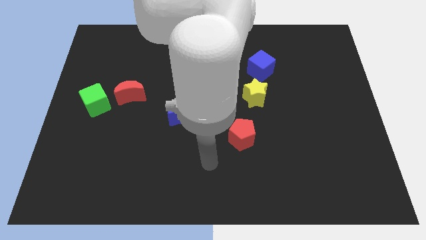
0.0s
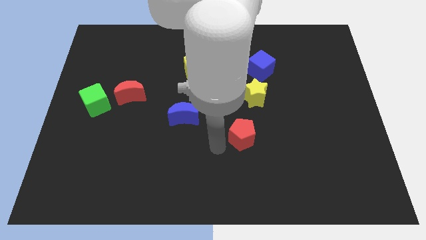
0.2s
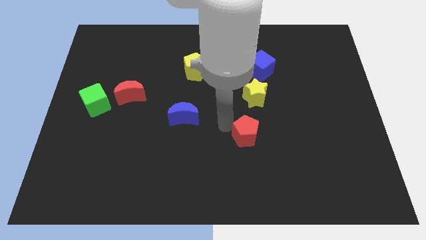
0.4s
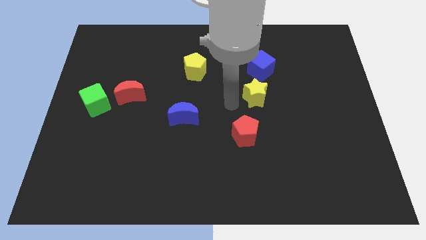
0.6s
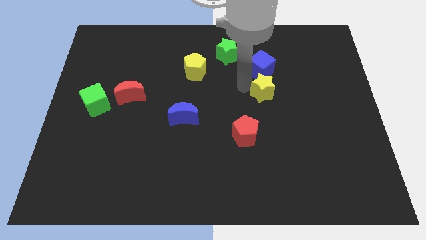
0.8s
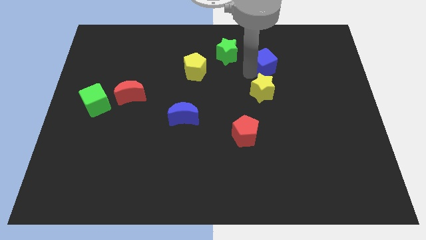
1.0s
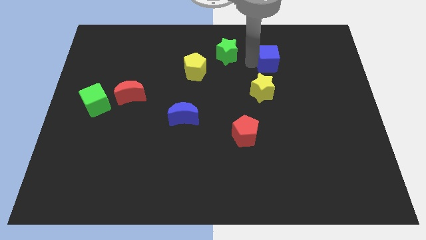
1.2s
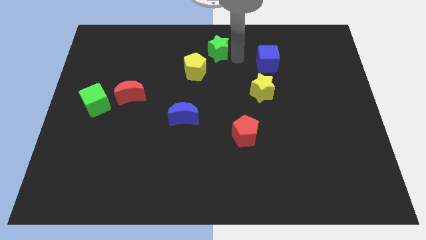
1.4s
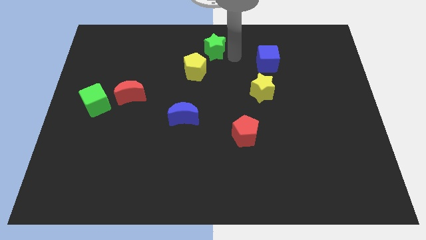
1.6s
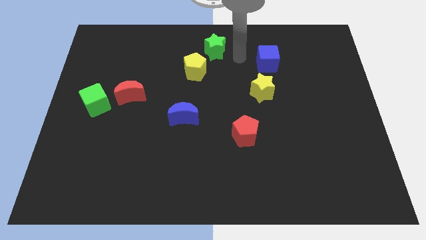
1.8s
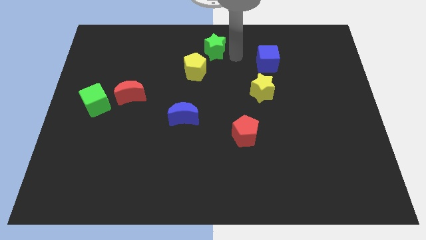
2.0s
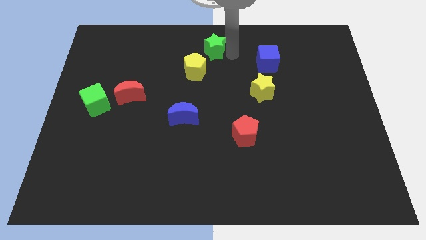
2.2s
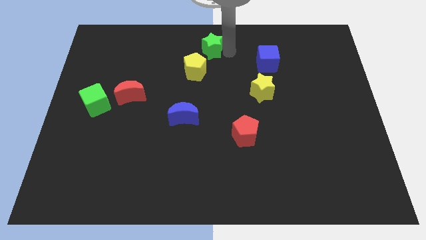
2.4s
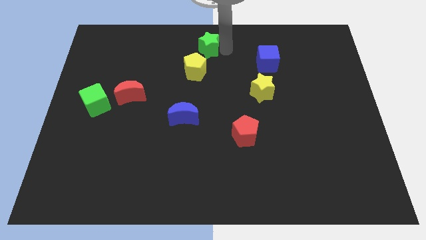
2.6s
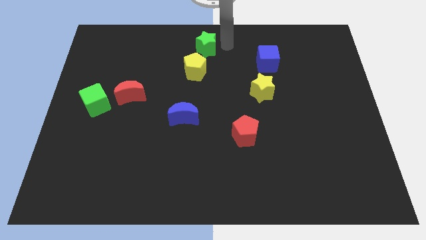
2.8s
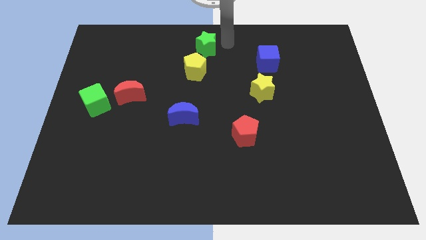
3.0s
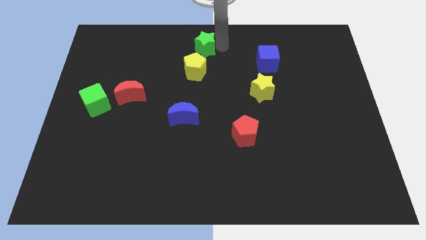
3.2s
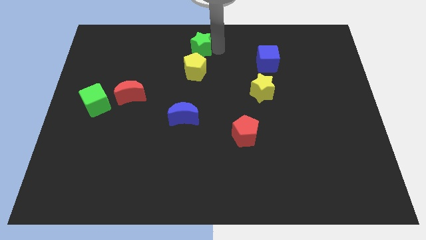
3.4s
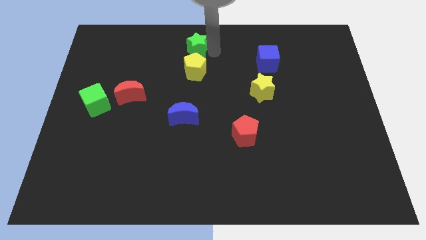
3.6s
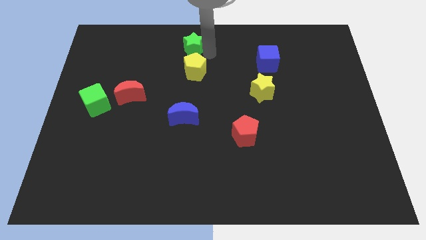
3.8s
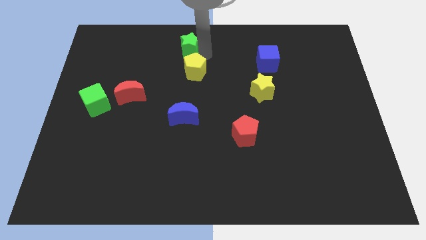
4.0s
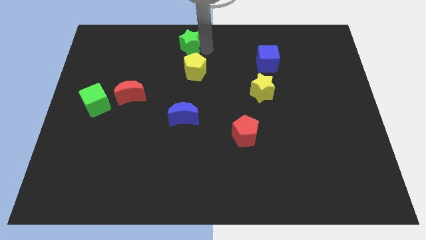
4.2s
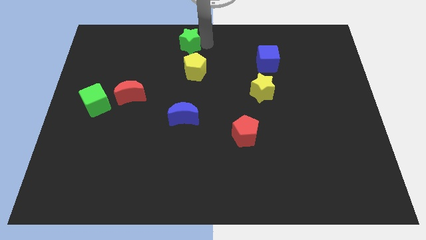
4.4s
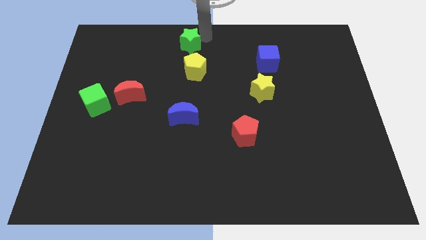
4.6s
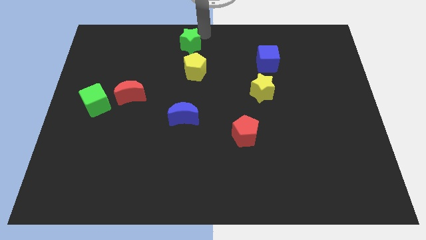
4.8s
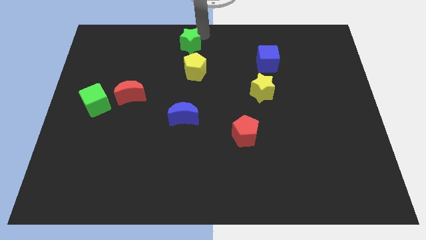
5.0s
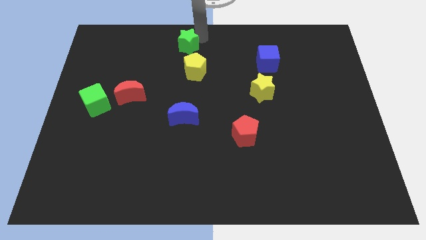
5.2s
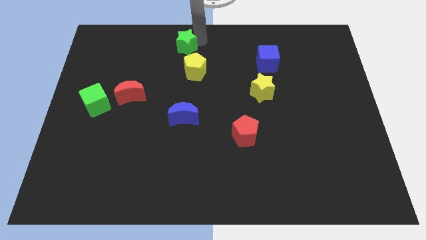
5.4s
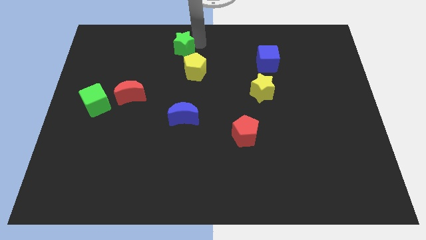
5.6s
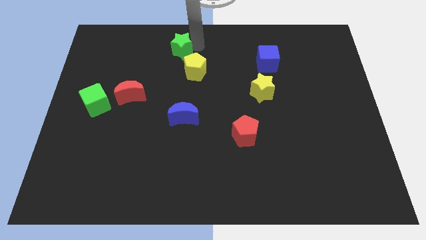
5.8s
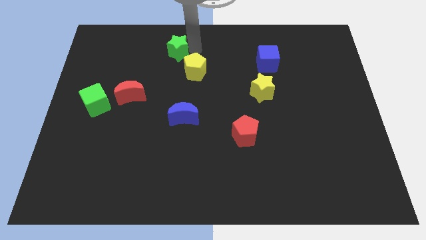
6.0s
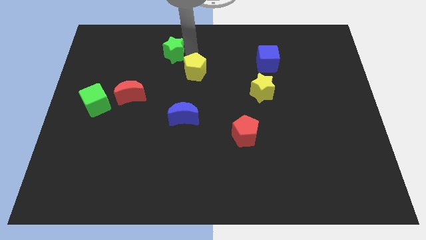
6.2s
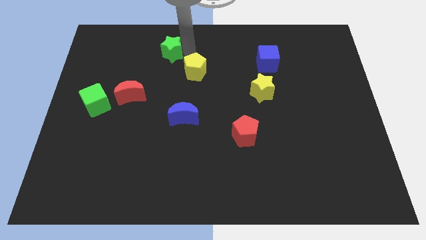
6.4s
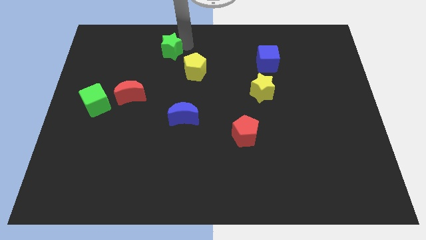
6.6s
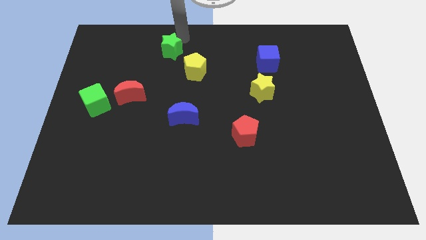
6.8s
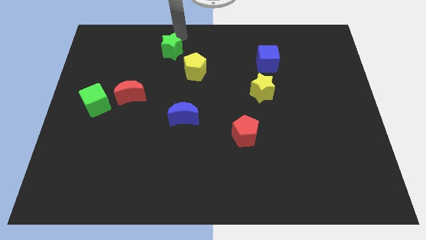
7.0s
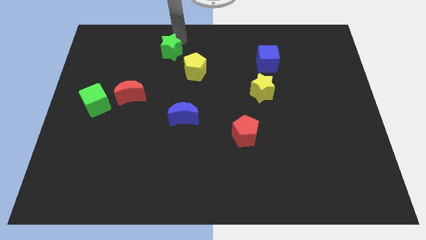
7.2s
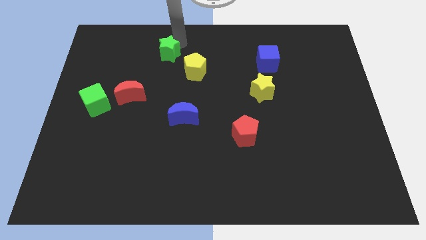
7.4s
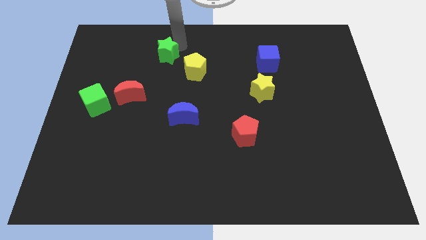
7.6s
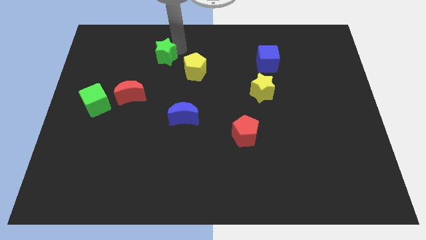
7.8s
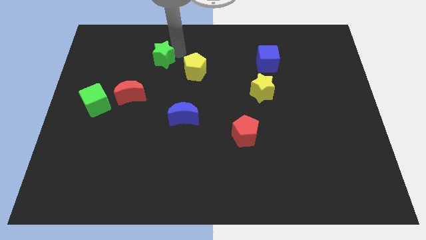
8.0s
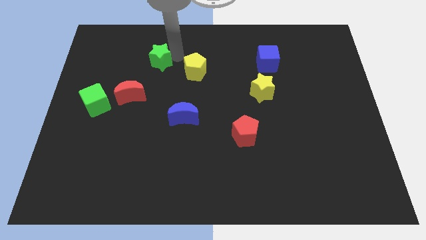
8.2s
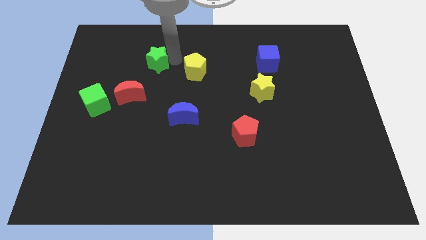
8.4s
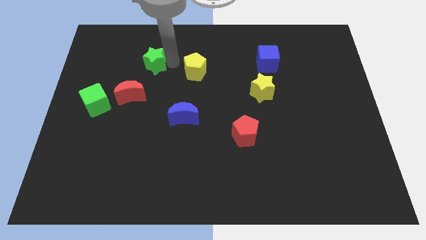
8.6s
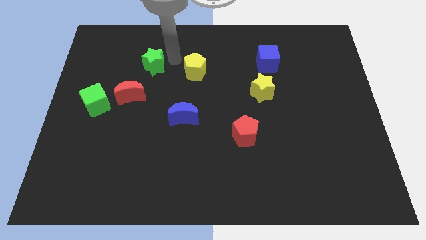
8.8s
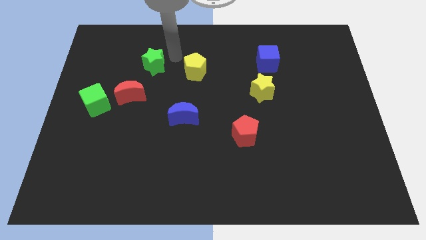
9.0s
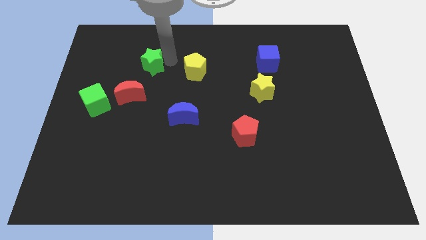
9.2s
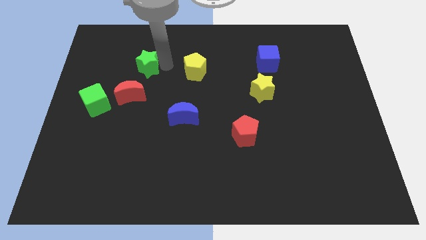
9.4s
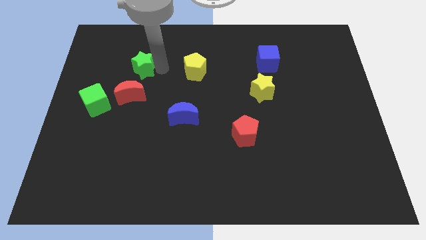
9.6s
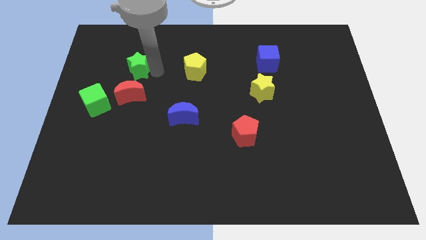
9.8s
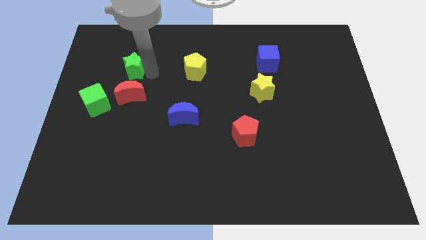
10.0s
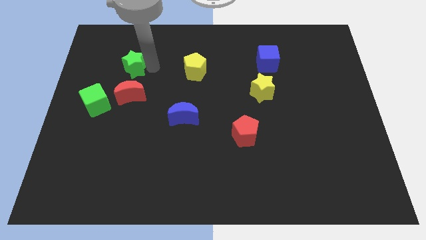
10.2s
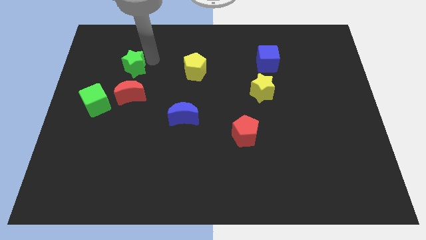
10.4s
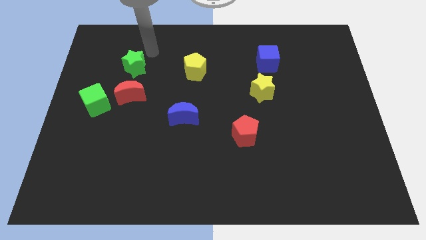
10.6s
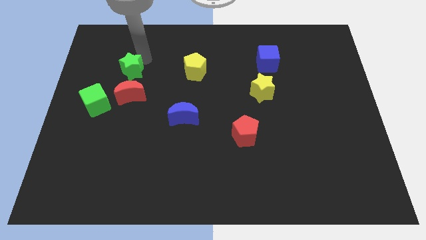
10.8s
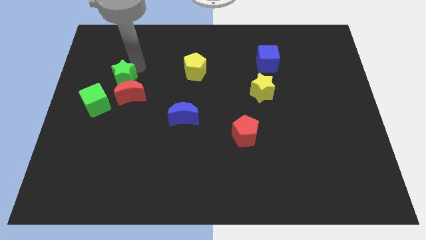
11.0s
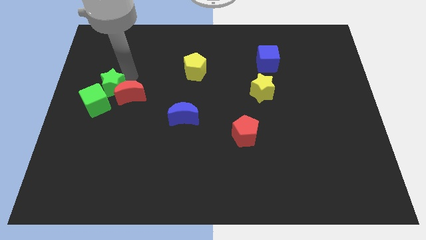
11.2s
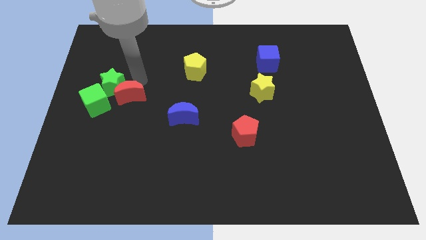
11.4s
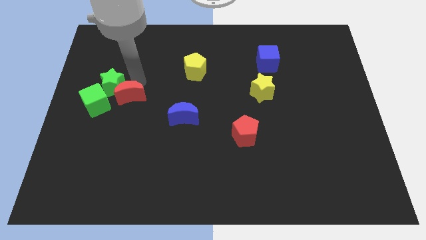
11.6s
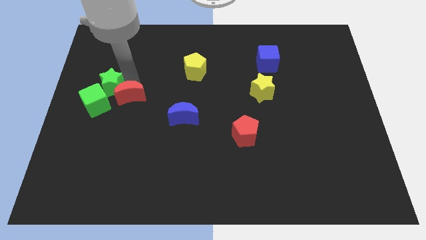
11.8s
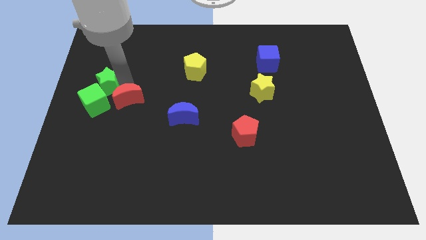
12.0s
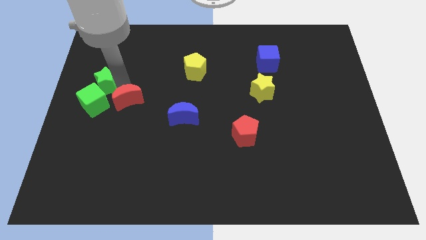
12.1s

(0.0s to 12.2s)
push the green star to the left side of the board

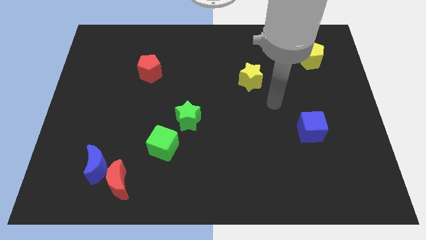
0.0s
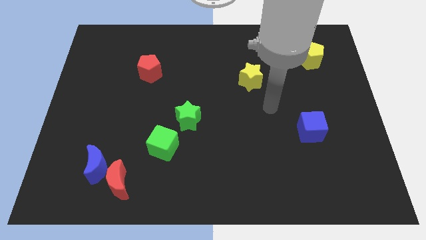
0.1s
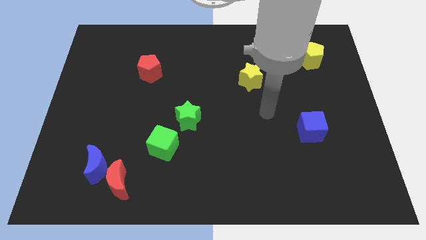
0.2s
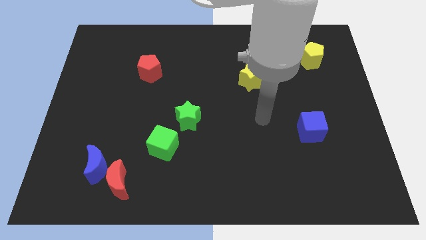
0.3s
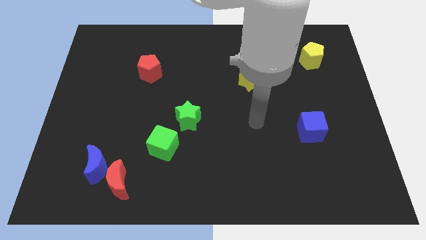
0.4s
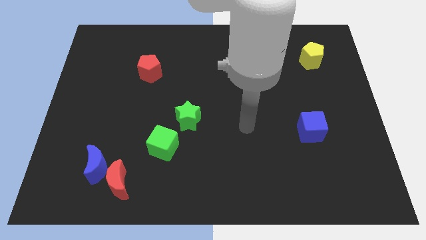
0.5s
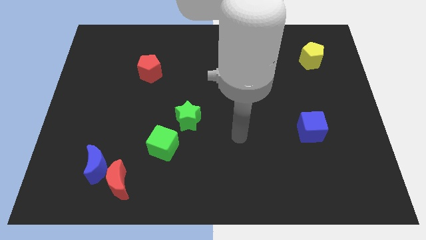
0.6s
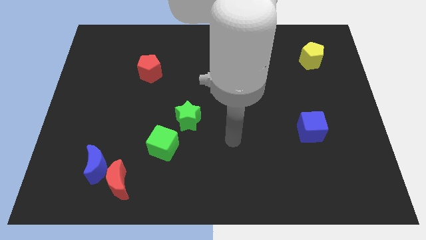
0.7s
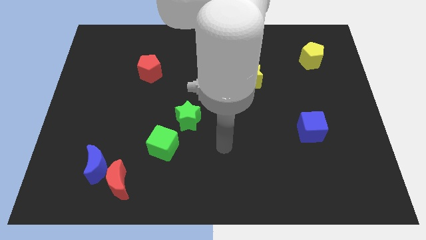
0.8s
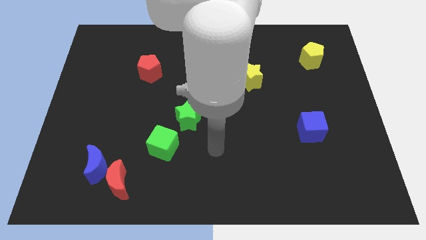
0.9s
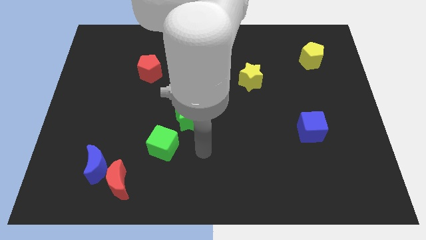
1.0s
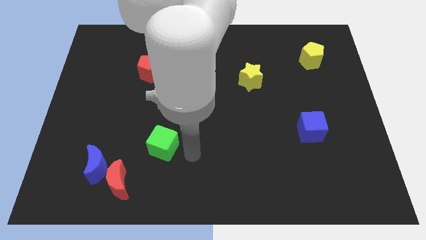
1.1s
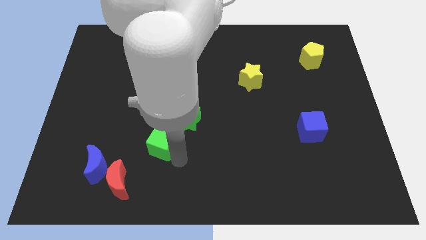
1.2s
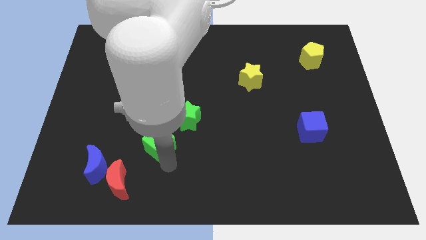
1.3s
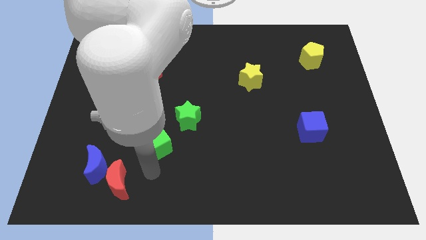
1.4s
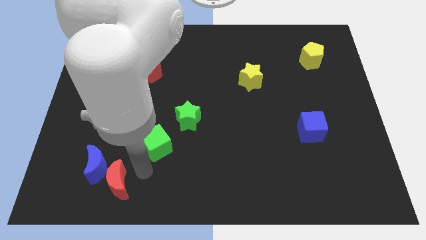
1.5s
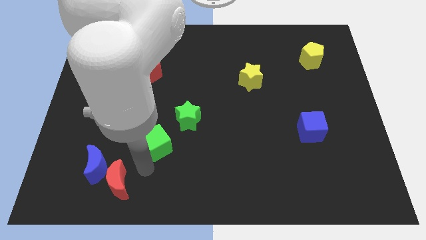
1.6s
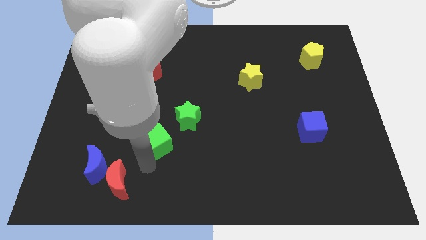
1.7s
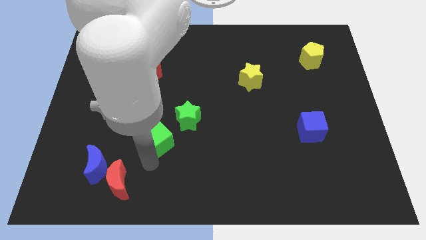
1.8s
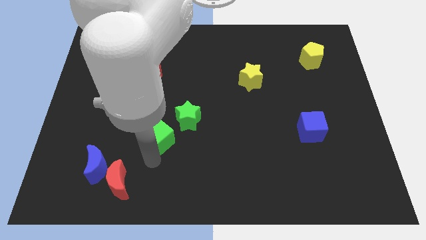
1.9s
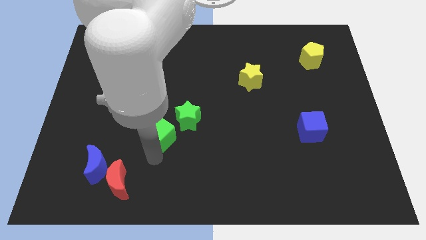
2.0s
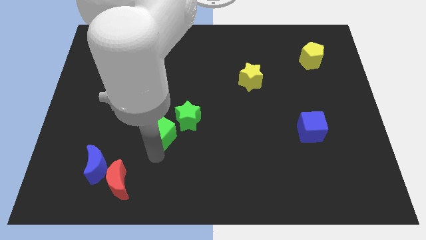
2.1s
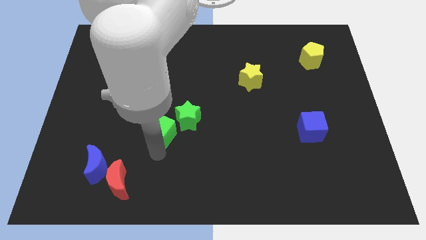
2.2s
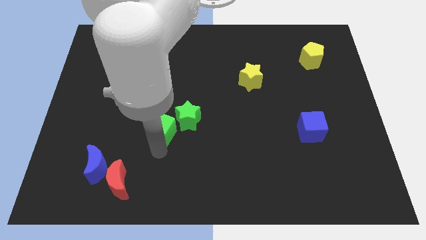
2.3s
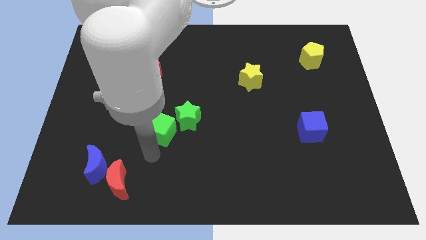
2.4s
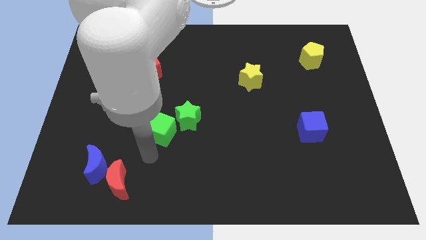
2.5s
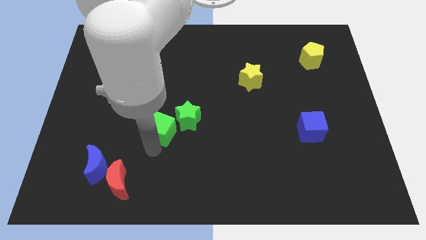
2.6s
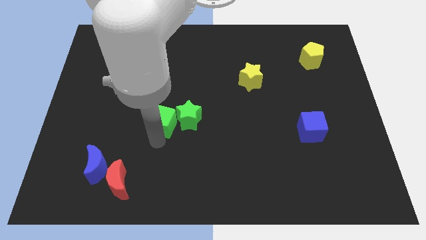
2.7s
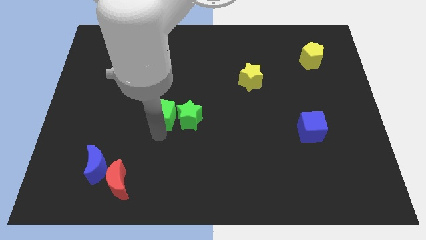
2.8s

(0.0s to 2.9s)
slide the green cube to the middle
